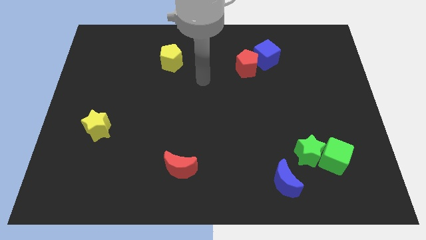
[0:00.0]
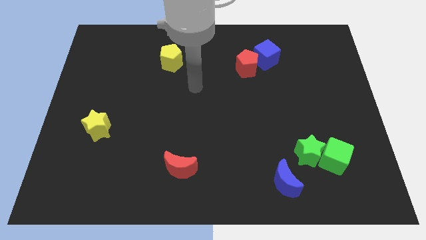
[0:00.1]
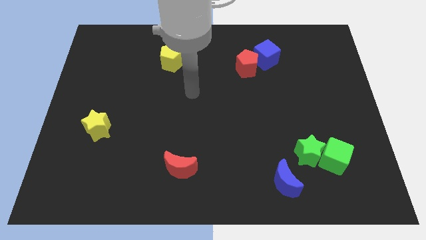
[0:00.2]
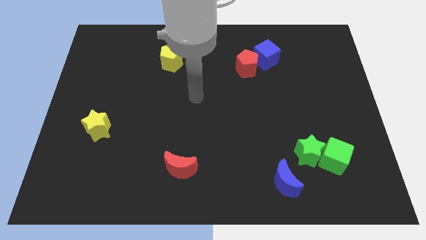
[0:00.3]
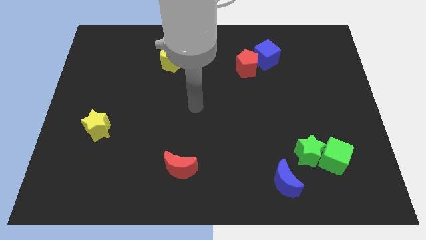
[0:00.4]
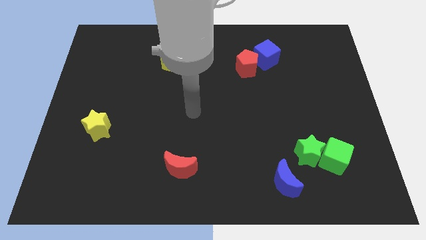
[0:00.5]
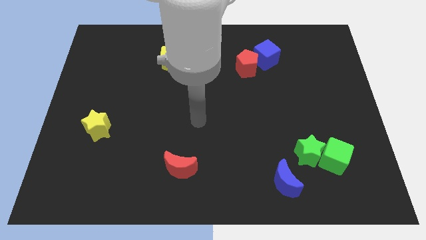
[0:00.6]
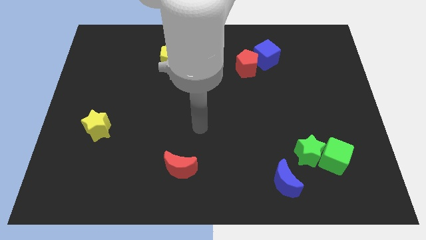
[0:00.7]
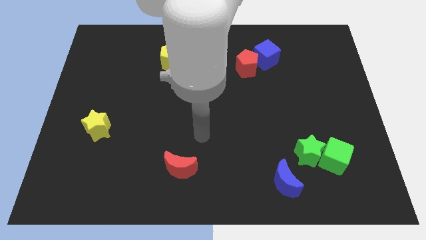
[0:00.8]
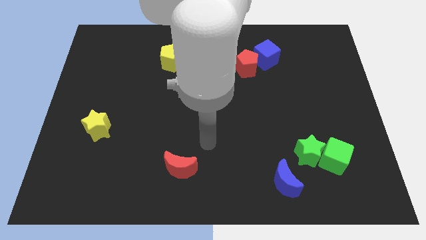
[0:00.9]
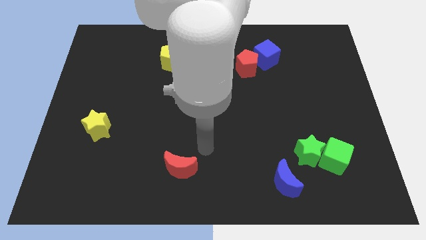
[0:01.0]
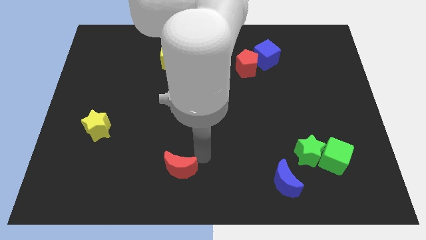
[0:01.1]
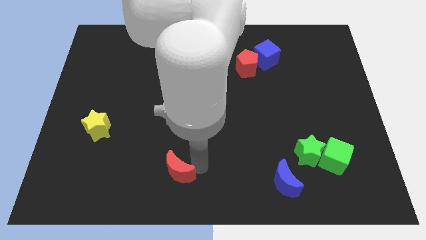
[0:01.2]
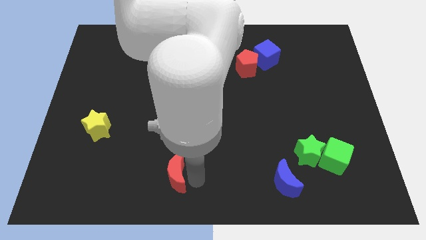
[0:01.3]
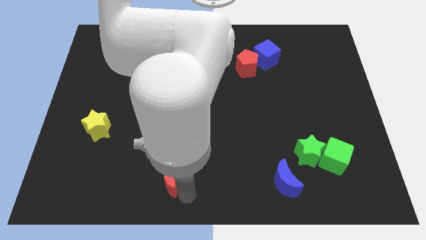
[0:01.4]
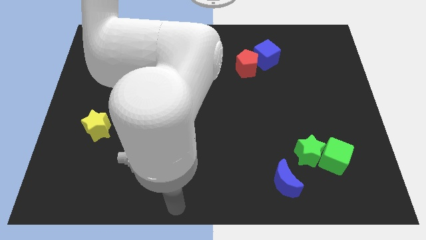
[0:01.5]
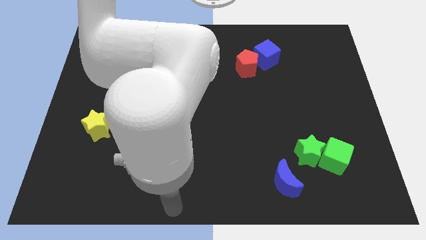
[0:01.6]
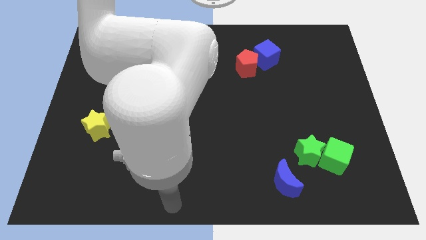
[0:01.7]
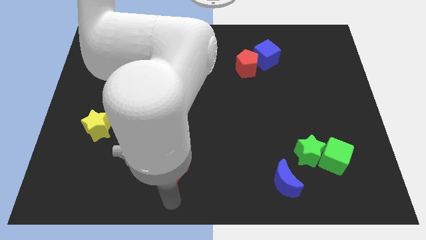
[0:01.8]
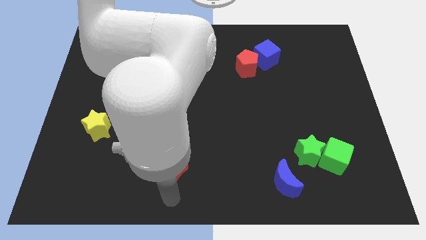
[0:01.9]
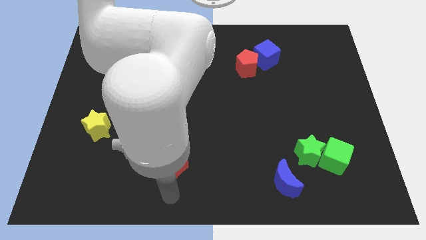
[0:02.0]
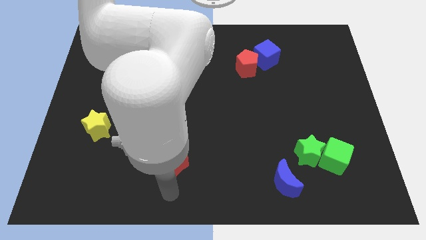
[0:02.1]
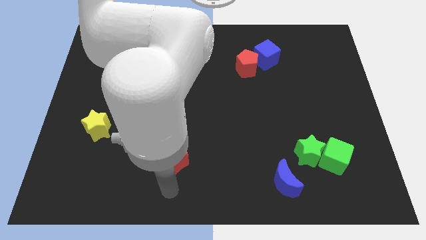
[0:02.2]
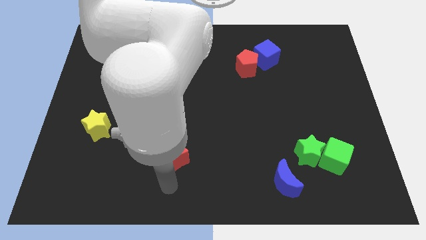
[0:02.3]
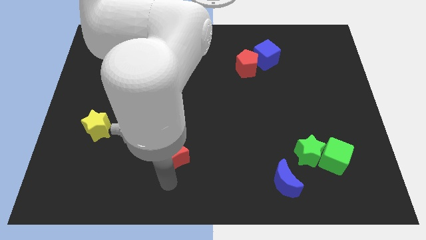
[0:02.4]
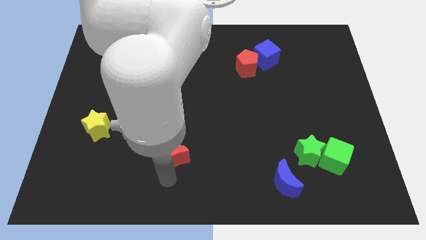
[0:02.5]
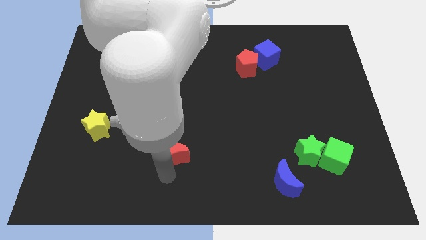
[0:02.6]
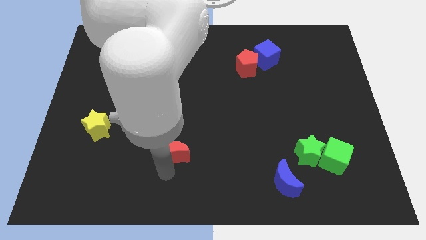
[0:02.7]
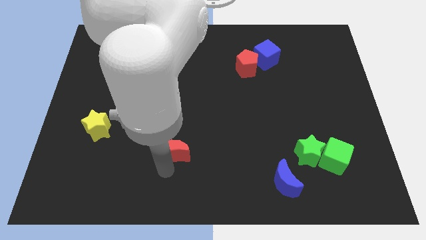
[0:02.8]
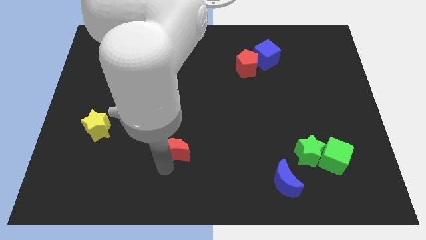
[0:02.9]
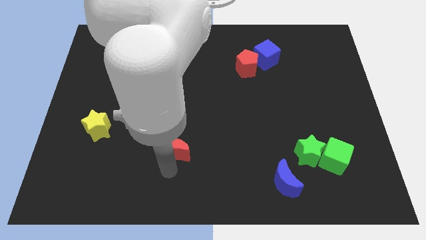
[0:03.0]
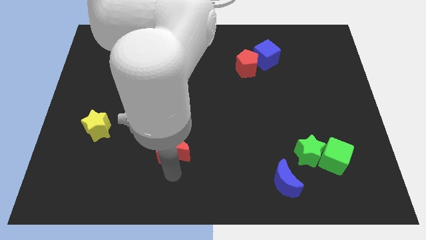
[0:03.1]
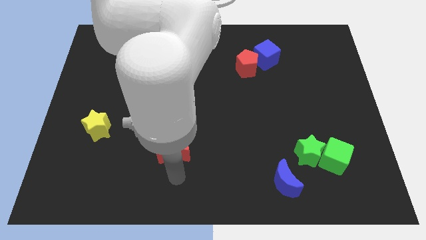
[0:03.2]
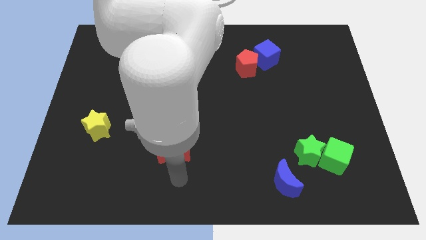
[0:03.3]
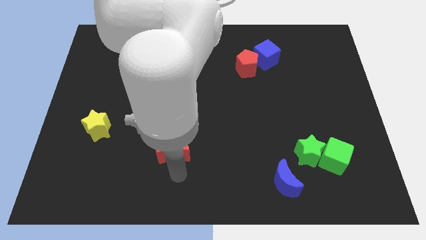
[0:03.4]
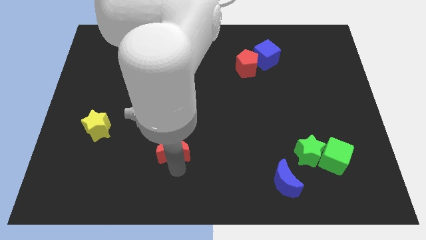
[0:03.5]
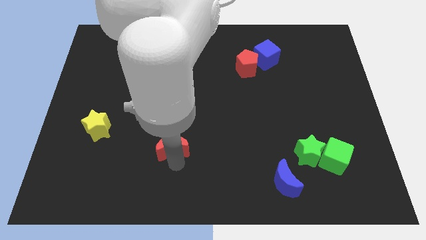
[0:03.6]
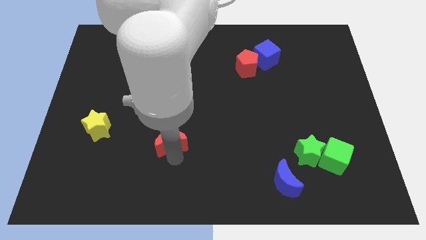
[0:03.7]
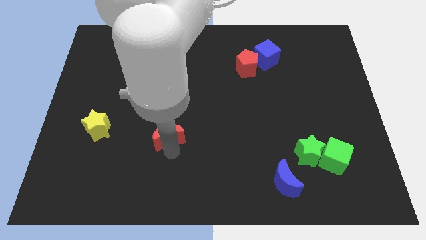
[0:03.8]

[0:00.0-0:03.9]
slide the red moon upwards a little bit

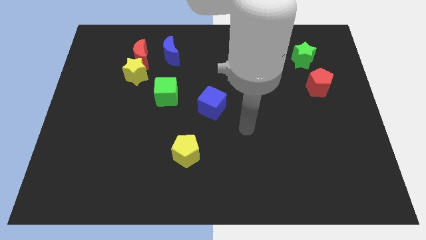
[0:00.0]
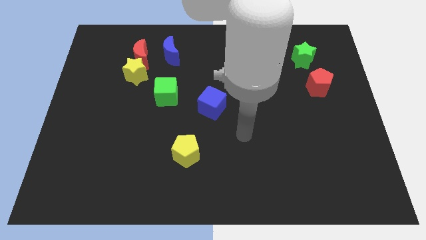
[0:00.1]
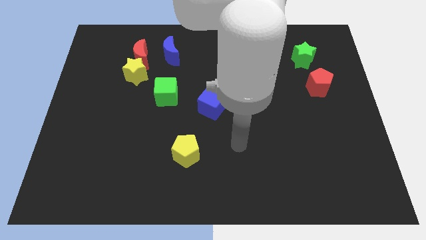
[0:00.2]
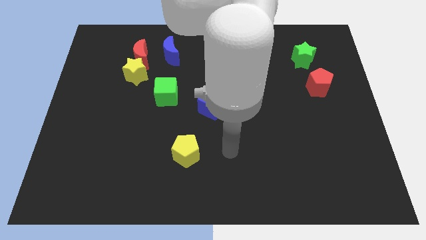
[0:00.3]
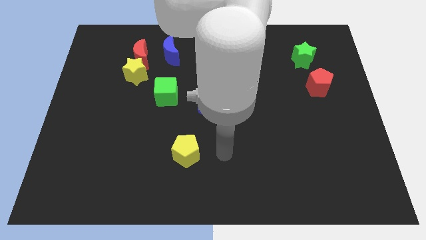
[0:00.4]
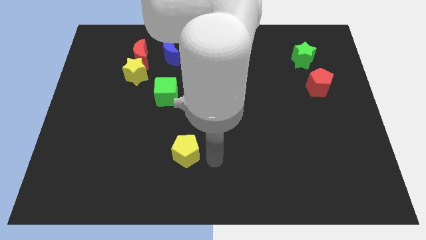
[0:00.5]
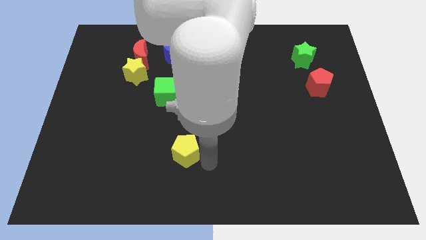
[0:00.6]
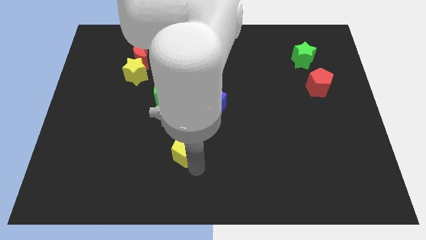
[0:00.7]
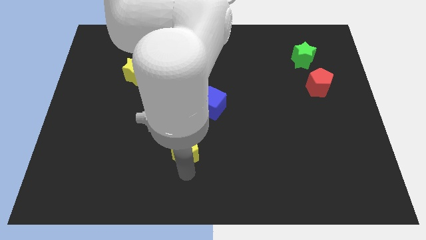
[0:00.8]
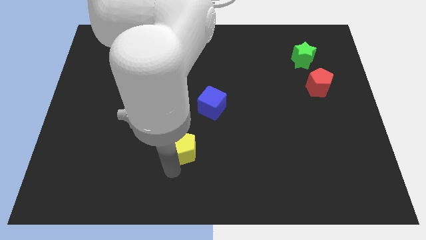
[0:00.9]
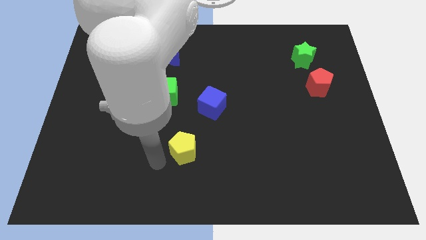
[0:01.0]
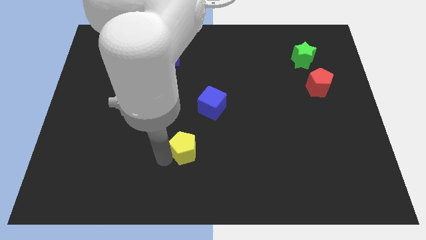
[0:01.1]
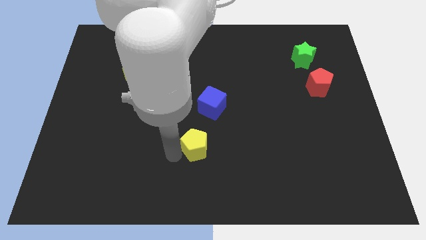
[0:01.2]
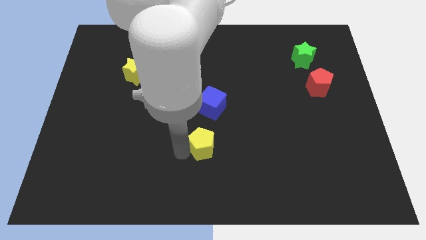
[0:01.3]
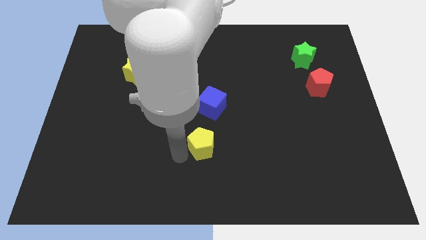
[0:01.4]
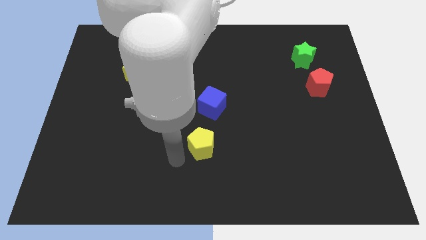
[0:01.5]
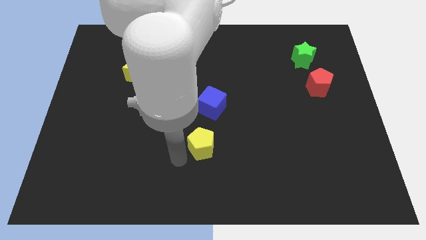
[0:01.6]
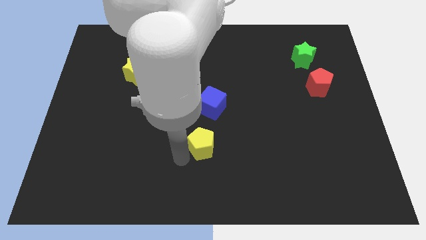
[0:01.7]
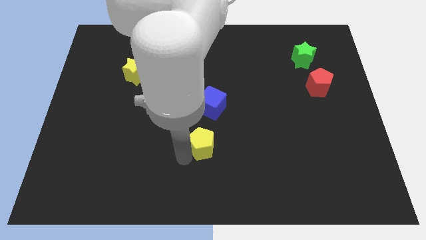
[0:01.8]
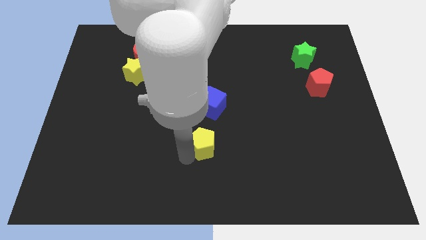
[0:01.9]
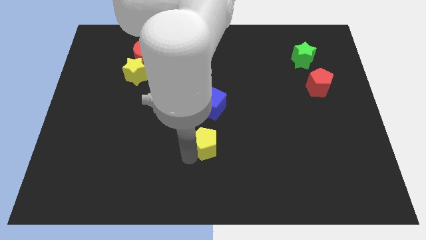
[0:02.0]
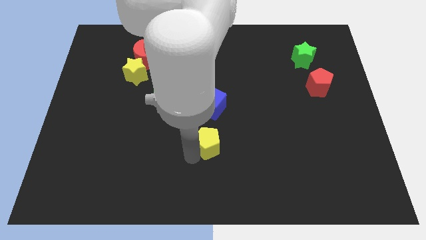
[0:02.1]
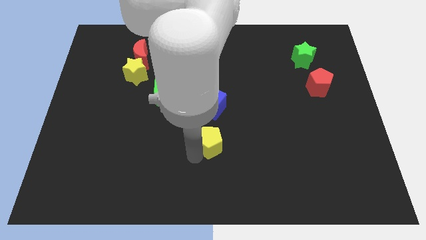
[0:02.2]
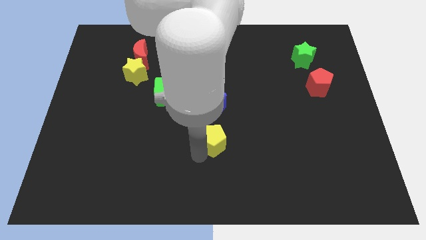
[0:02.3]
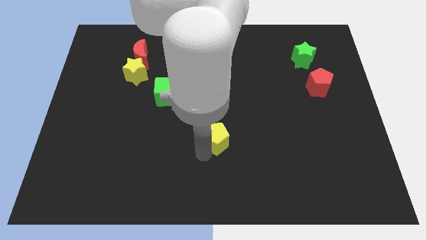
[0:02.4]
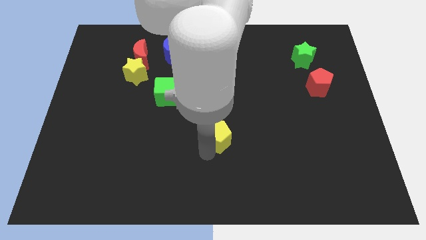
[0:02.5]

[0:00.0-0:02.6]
slightly slide the yellow pentagon up and to the right diagonally

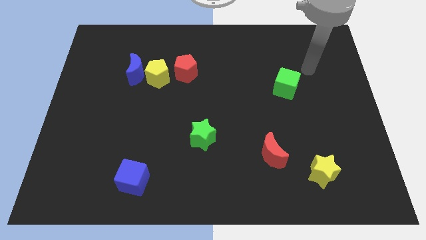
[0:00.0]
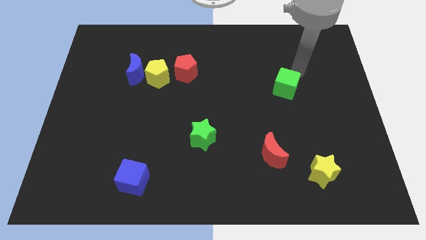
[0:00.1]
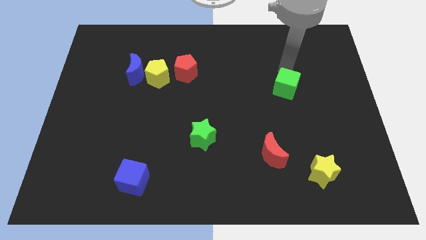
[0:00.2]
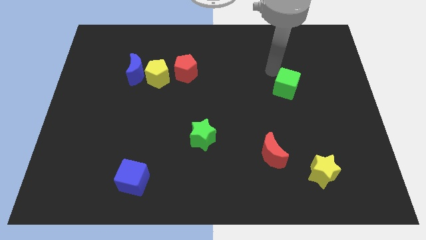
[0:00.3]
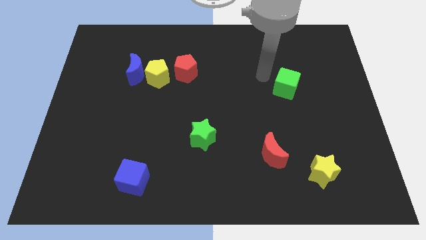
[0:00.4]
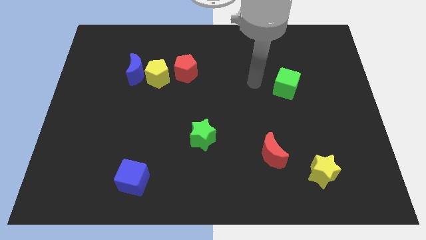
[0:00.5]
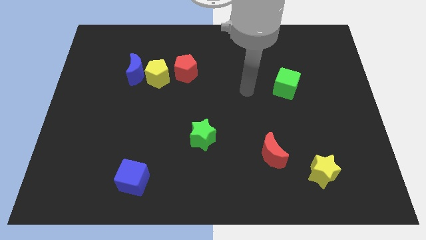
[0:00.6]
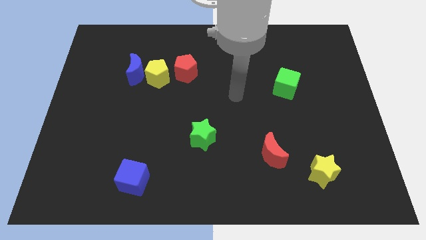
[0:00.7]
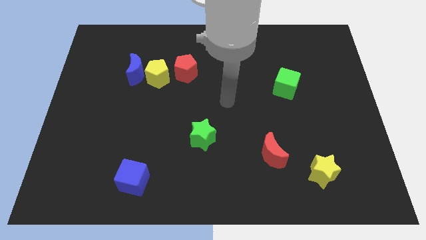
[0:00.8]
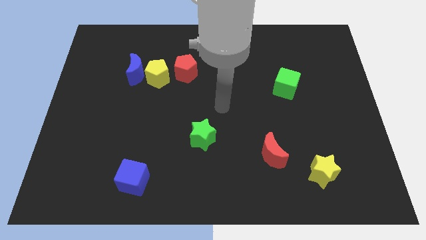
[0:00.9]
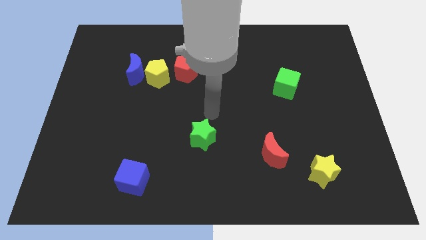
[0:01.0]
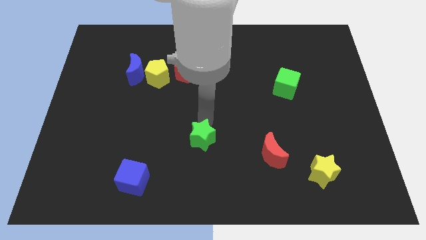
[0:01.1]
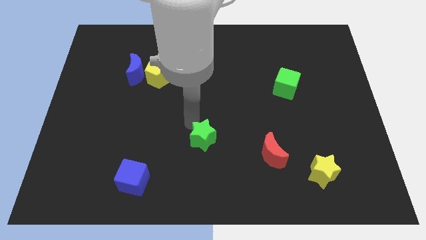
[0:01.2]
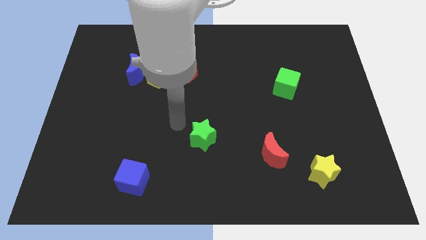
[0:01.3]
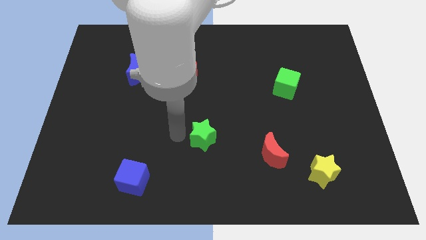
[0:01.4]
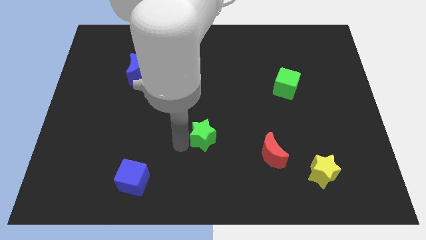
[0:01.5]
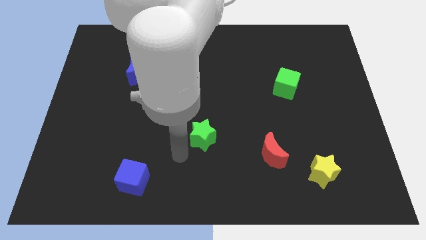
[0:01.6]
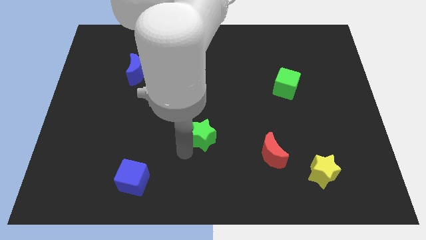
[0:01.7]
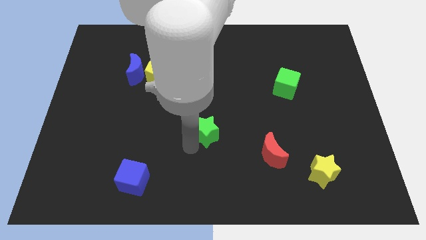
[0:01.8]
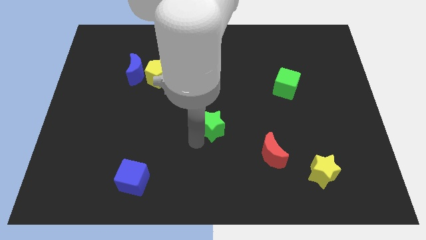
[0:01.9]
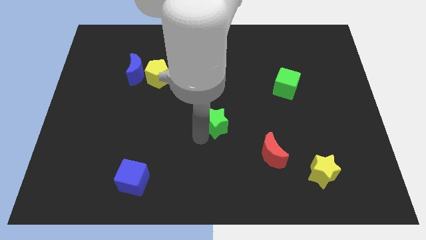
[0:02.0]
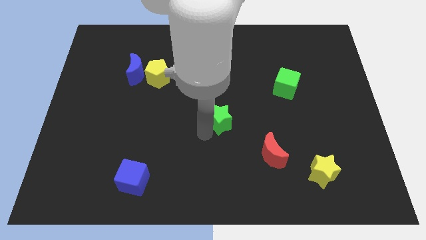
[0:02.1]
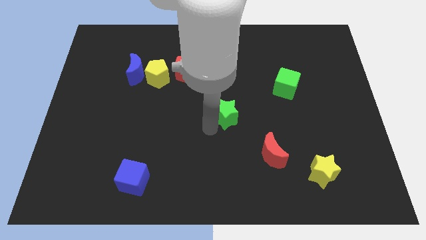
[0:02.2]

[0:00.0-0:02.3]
move the green star diagonally upwards and to the right a bit
